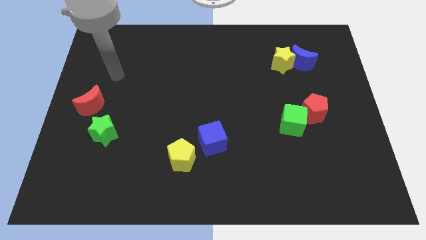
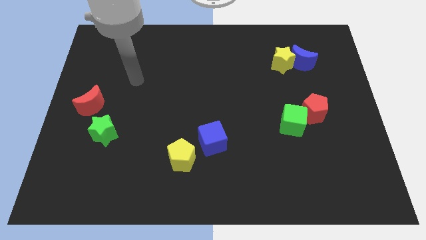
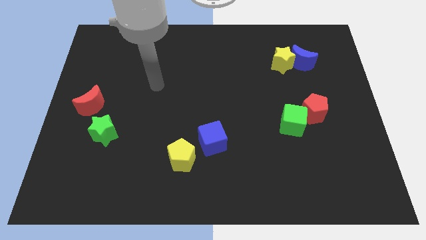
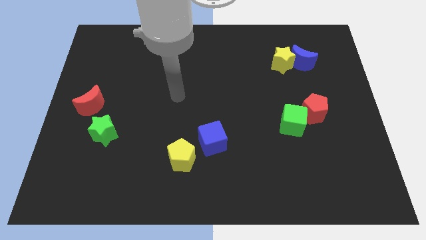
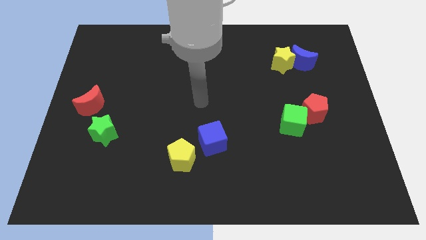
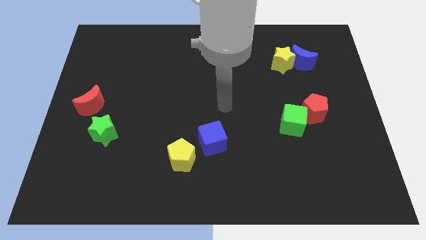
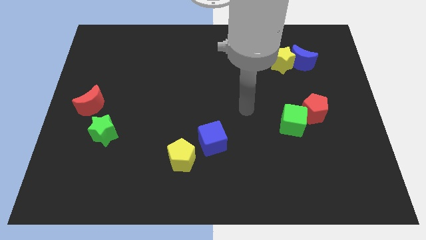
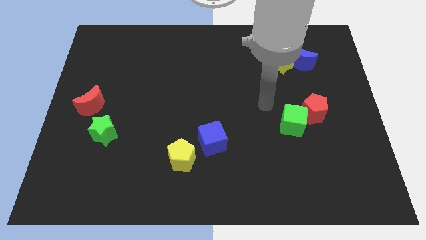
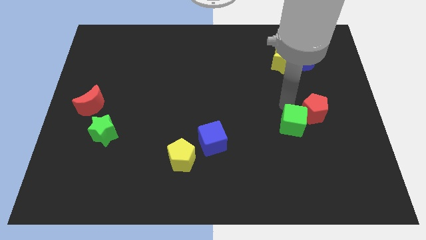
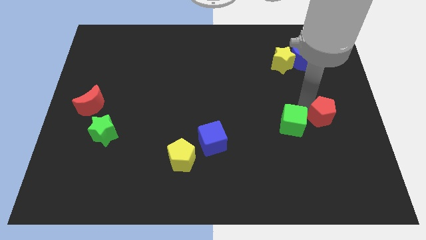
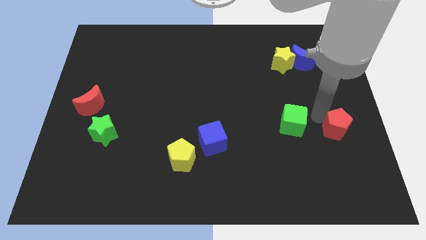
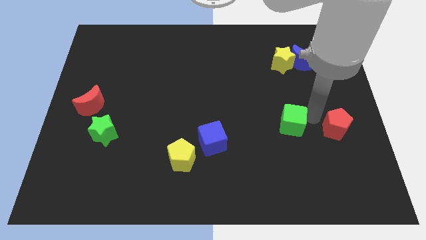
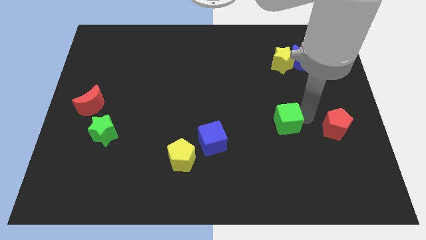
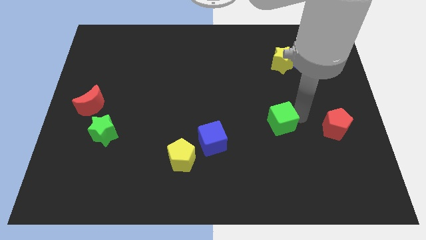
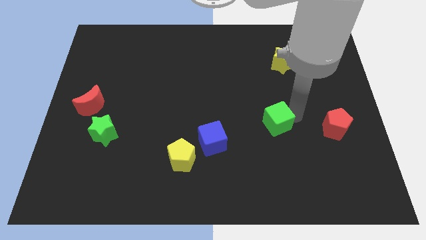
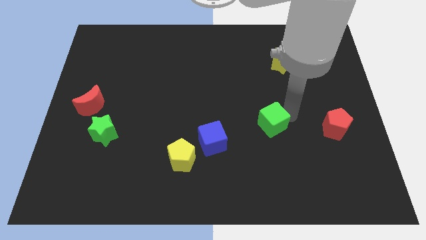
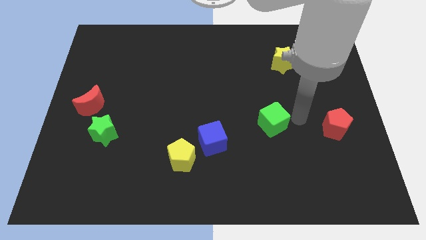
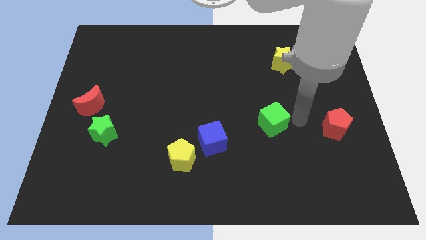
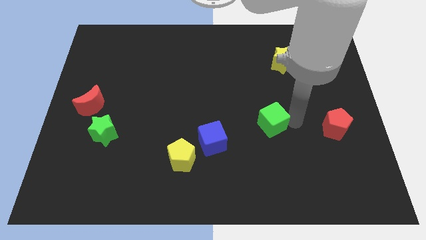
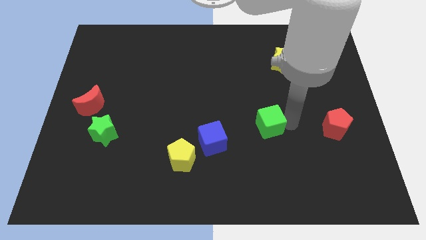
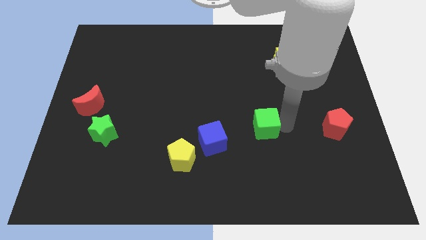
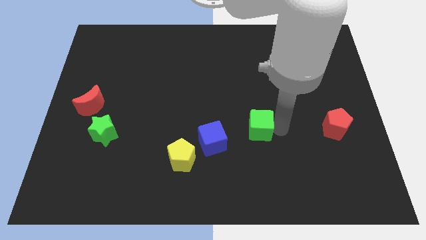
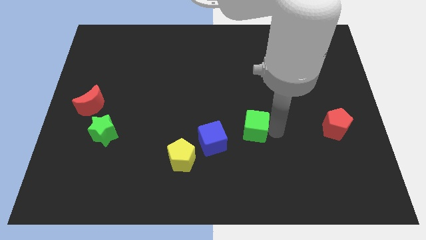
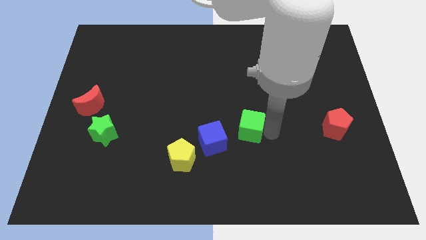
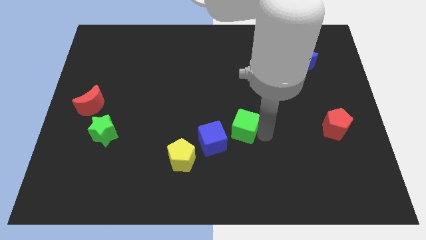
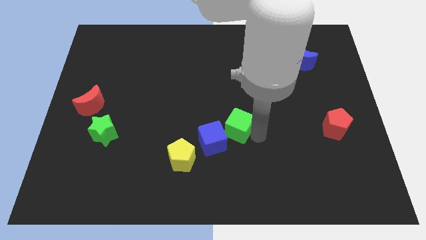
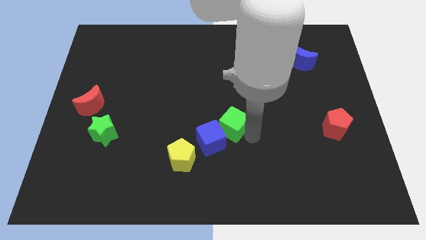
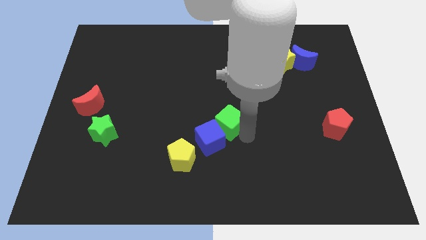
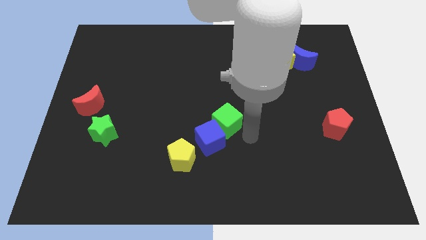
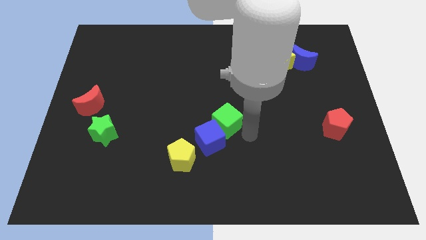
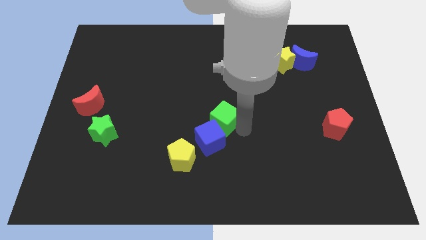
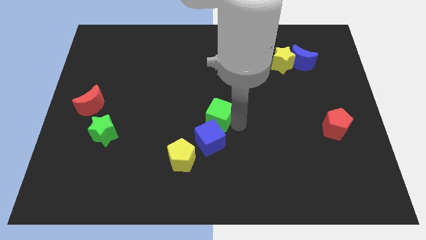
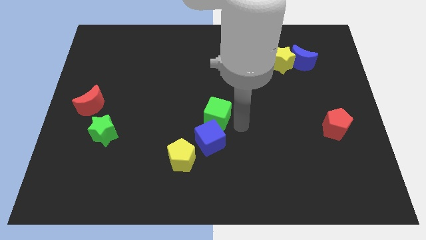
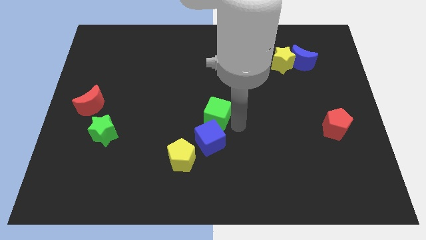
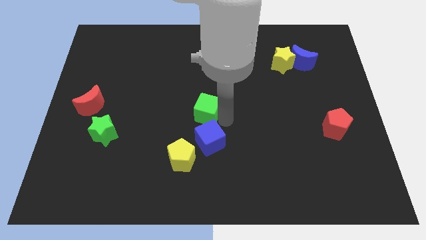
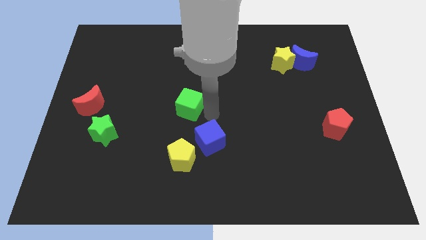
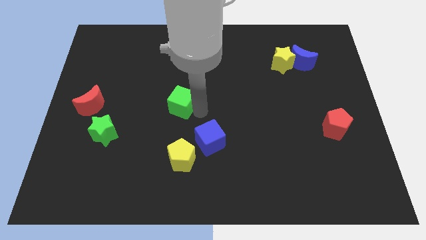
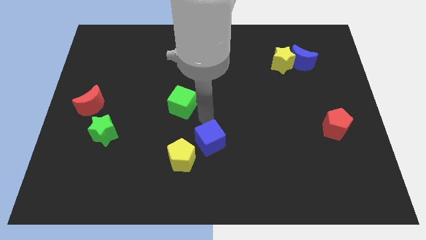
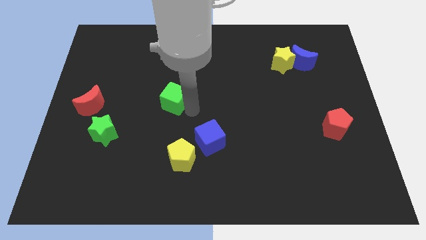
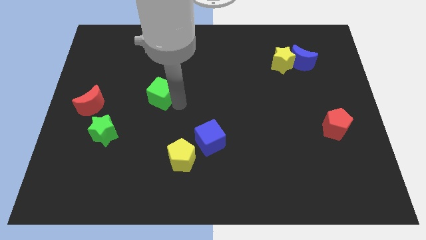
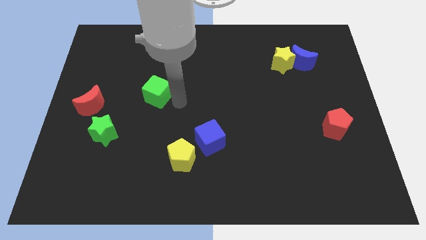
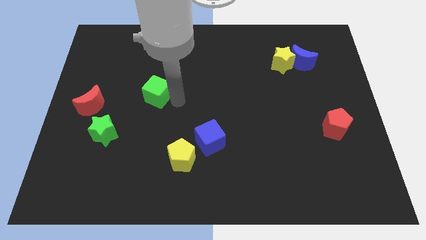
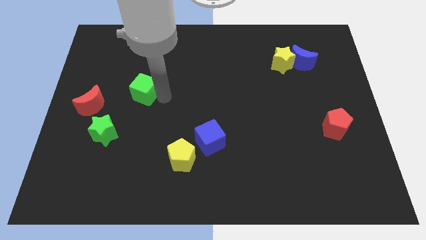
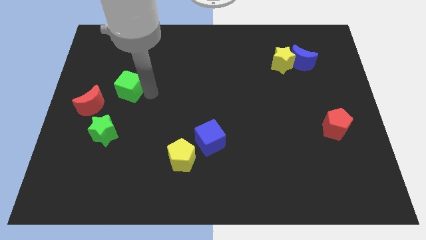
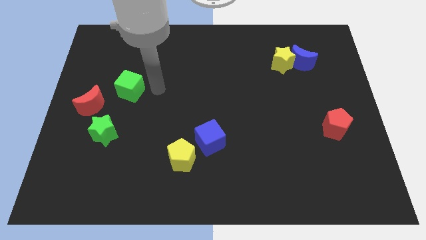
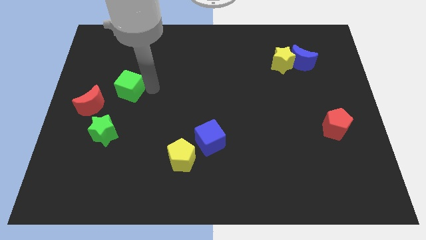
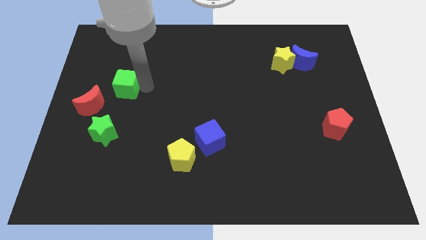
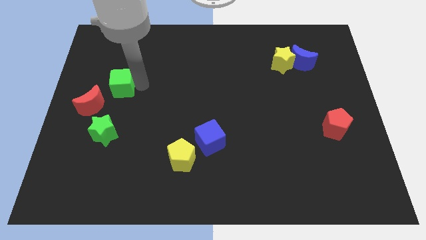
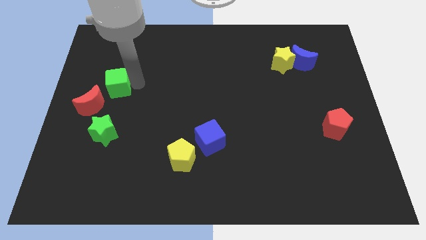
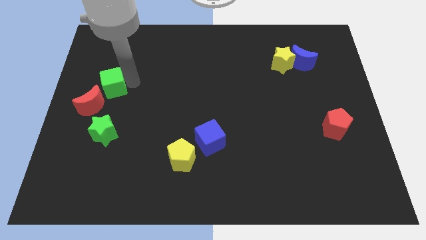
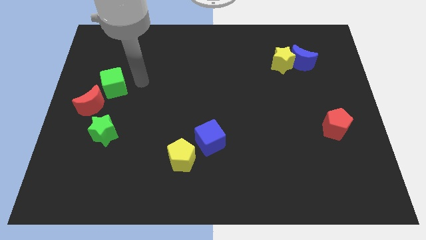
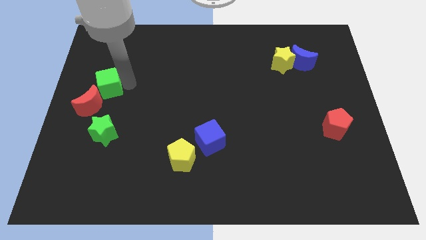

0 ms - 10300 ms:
put the green cube to the center left
